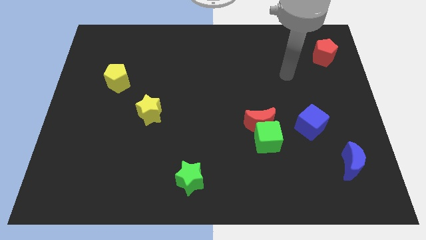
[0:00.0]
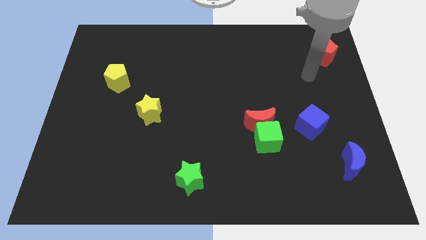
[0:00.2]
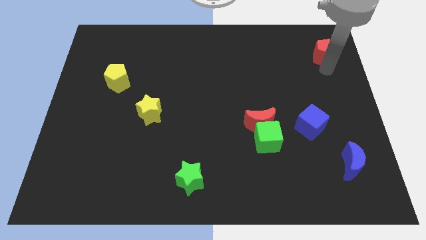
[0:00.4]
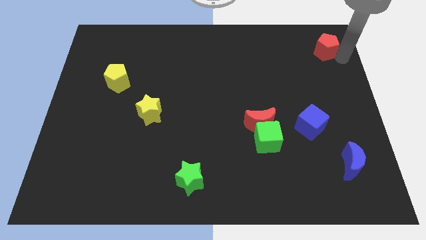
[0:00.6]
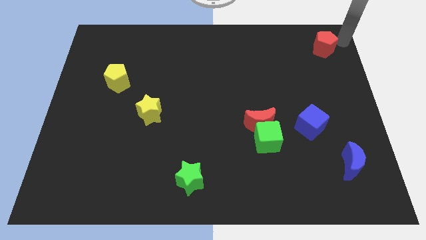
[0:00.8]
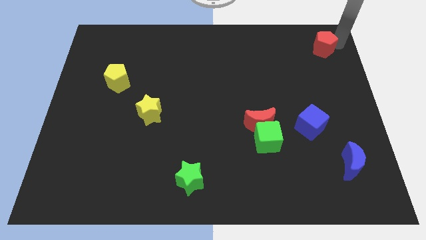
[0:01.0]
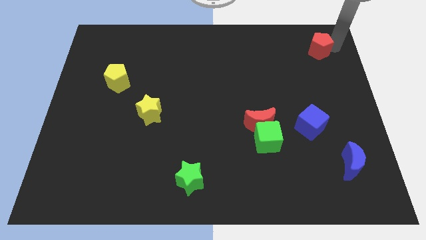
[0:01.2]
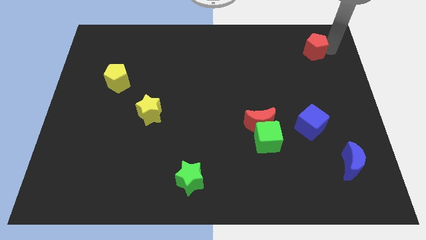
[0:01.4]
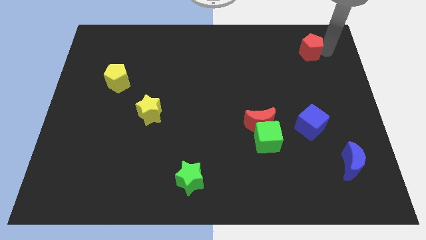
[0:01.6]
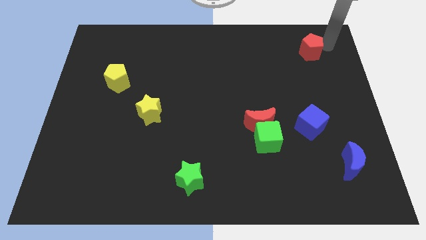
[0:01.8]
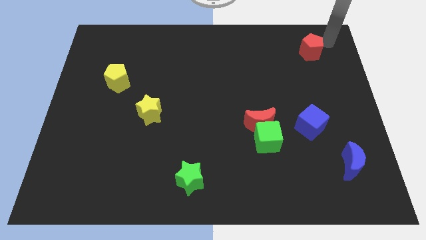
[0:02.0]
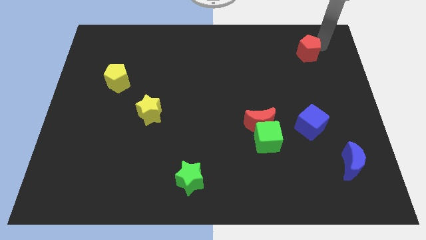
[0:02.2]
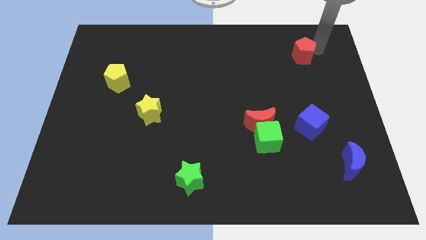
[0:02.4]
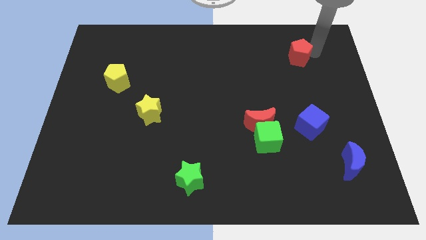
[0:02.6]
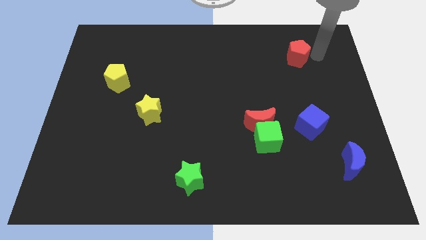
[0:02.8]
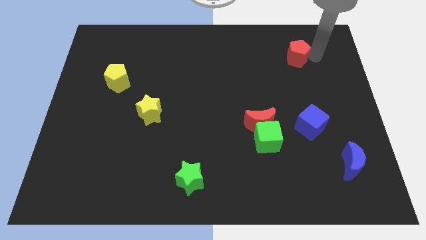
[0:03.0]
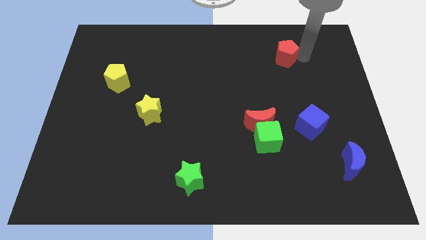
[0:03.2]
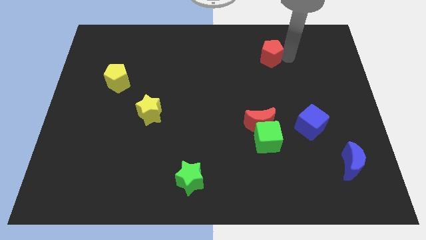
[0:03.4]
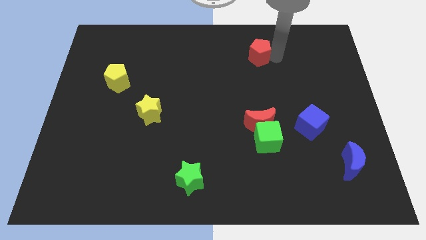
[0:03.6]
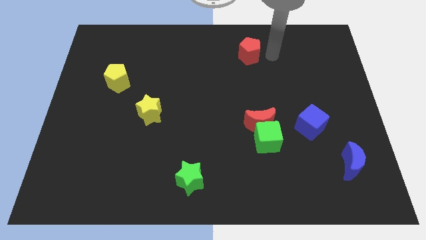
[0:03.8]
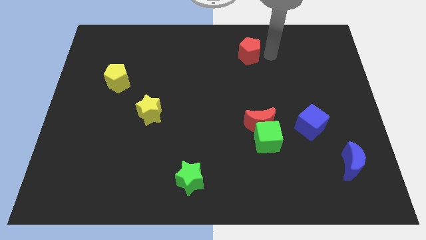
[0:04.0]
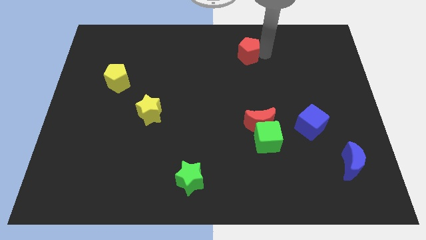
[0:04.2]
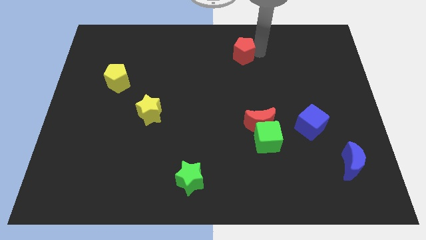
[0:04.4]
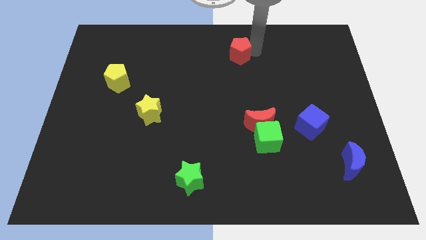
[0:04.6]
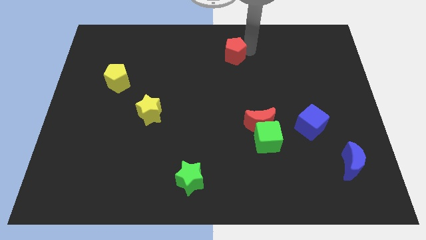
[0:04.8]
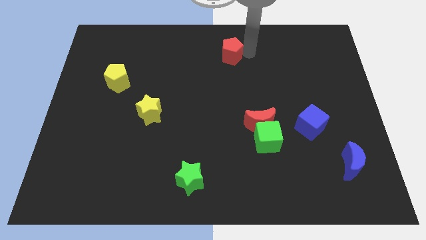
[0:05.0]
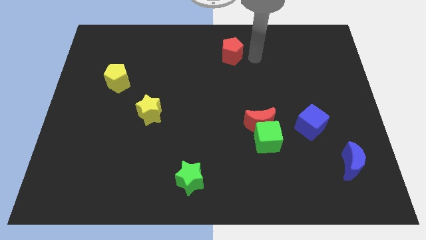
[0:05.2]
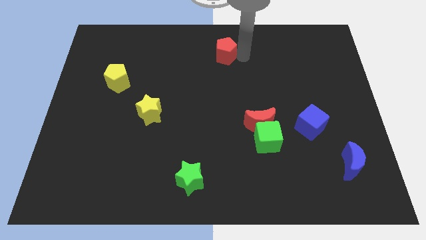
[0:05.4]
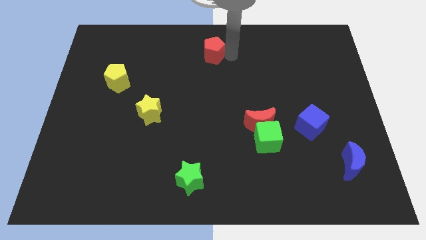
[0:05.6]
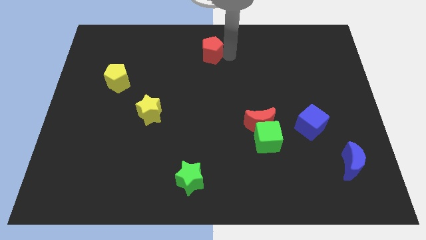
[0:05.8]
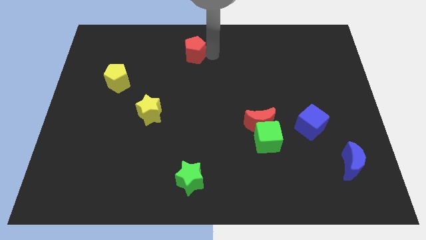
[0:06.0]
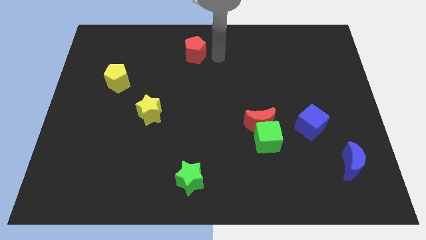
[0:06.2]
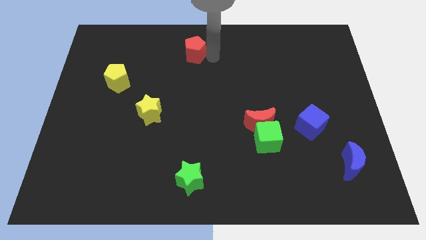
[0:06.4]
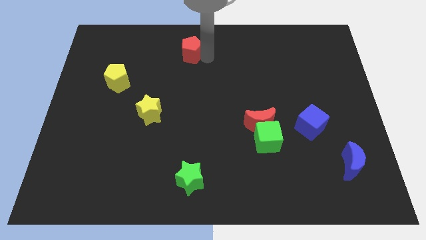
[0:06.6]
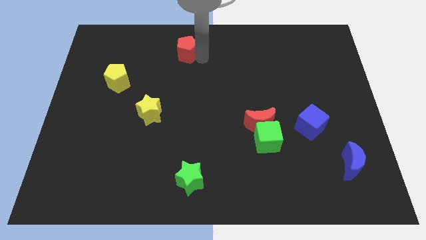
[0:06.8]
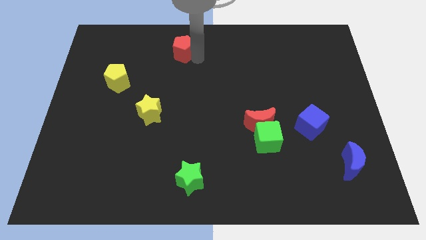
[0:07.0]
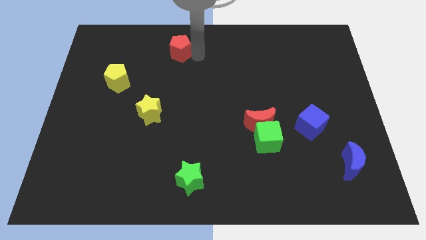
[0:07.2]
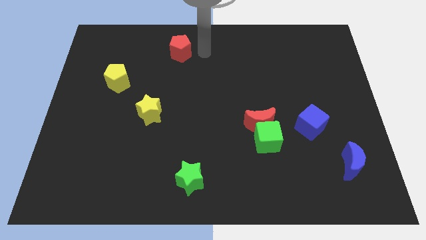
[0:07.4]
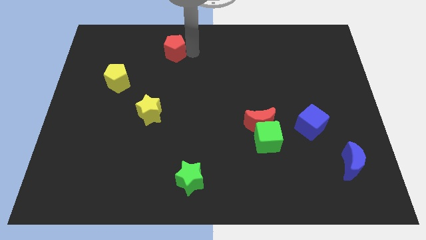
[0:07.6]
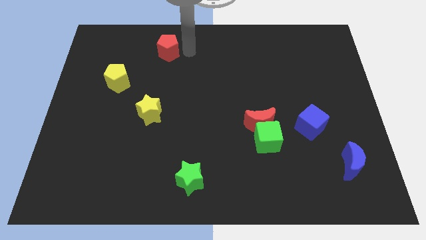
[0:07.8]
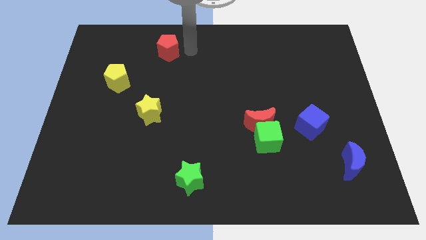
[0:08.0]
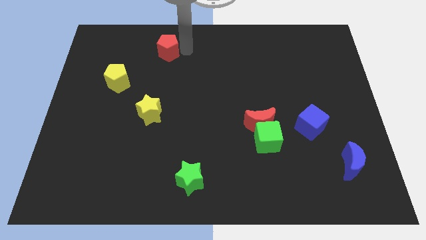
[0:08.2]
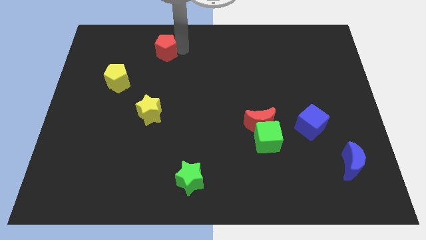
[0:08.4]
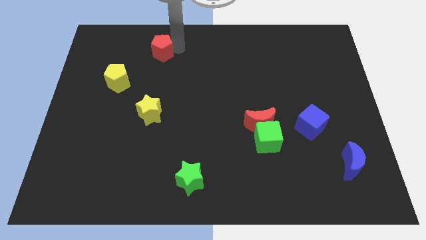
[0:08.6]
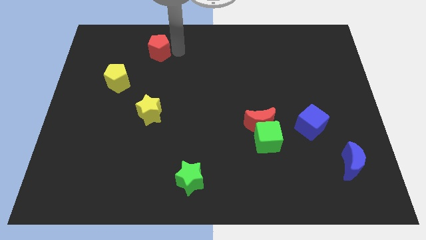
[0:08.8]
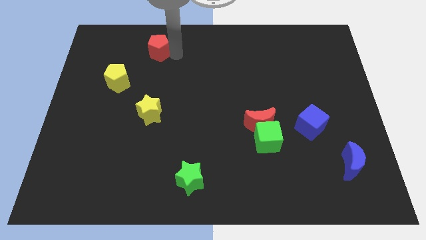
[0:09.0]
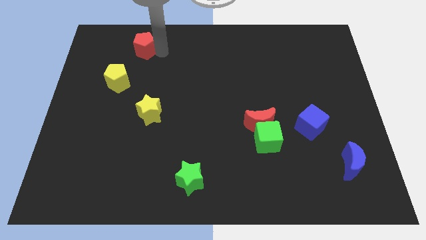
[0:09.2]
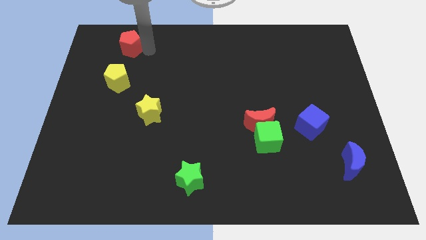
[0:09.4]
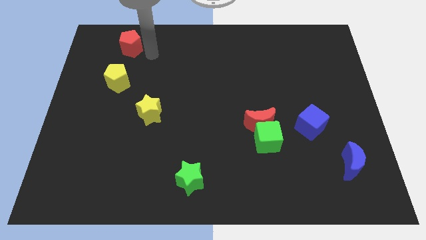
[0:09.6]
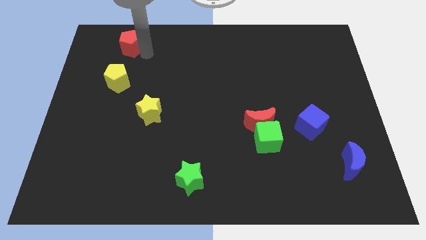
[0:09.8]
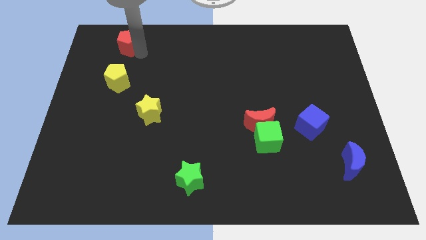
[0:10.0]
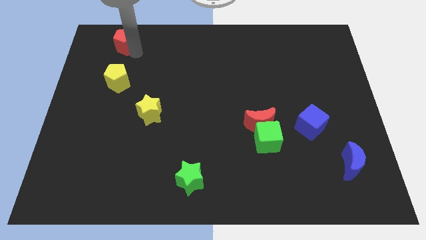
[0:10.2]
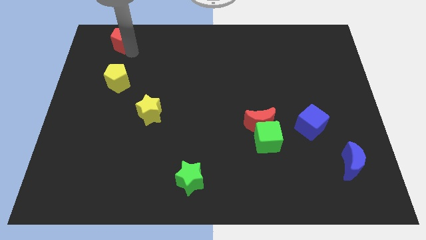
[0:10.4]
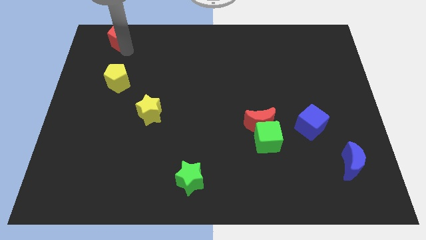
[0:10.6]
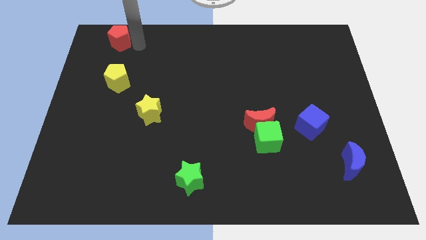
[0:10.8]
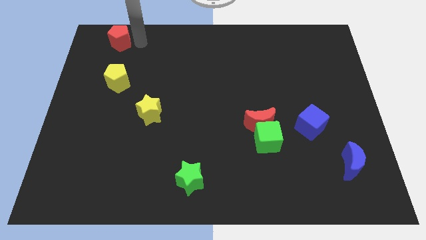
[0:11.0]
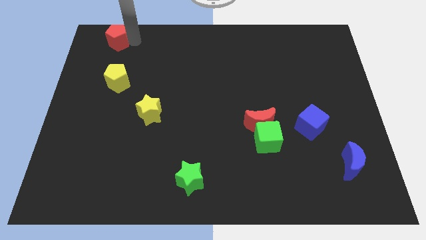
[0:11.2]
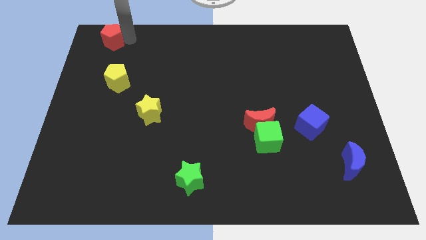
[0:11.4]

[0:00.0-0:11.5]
slide the red pentagon to the upper left corner

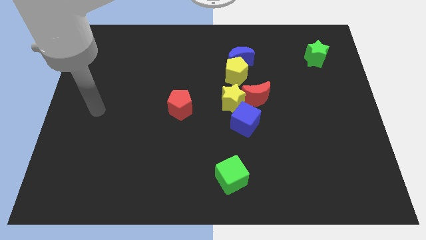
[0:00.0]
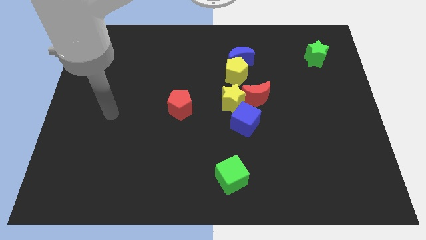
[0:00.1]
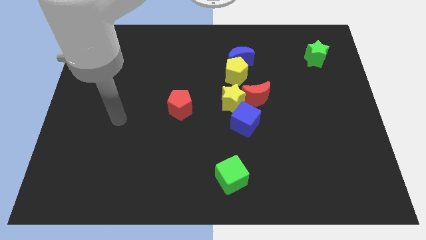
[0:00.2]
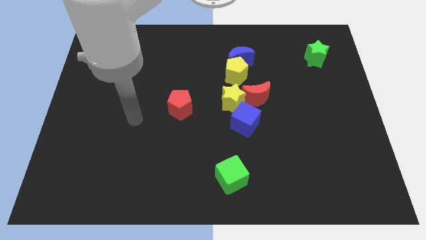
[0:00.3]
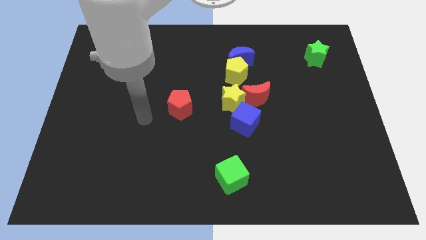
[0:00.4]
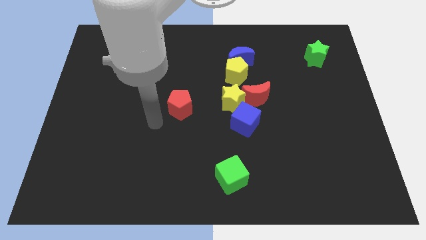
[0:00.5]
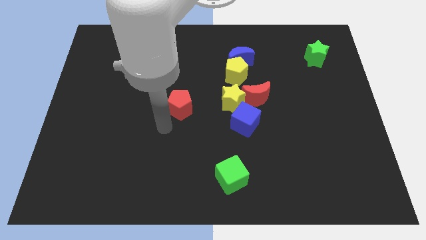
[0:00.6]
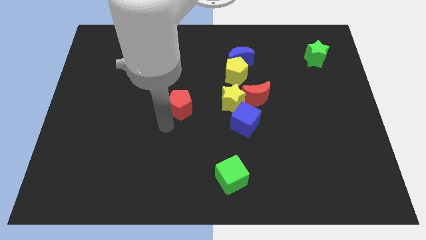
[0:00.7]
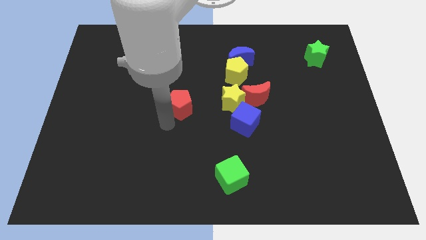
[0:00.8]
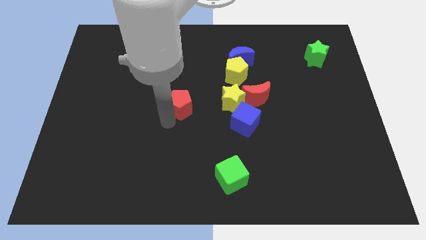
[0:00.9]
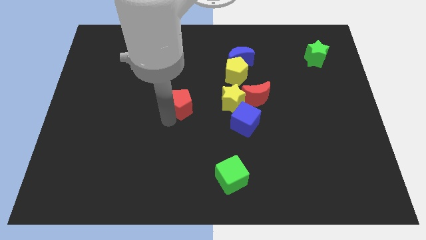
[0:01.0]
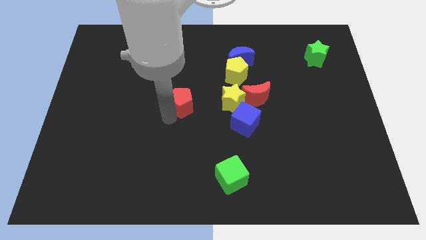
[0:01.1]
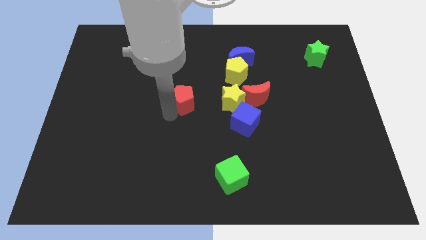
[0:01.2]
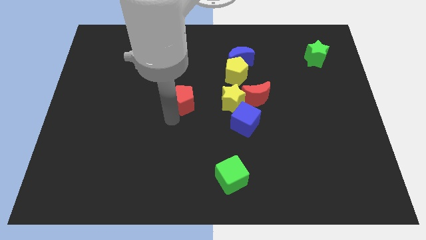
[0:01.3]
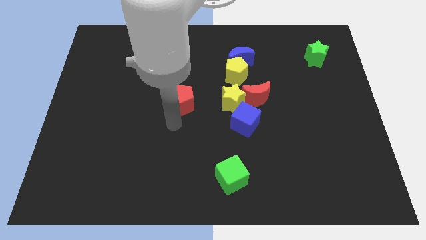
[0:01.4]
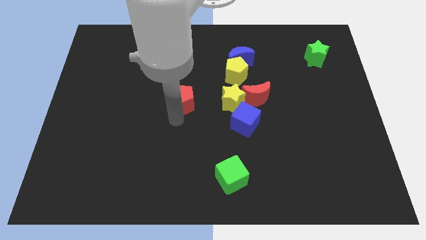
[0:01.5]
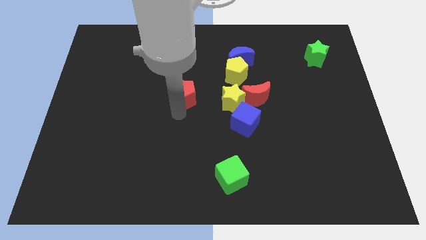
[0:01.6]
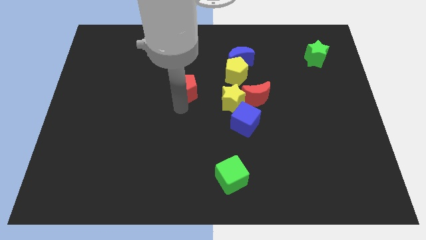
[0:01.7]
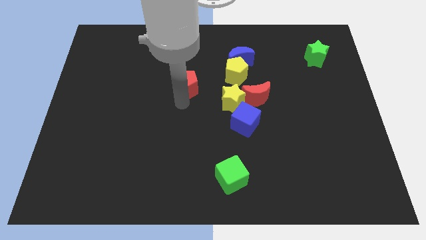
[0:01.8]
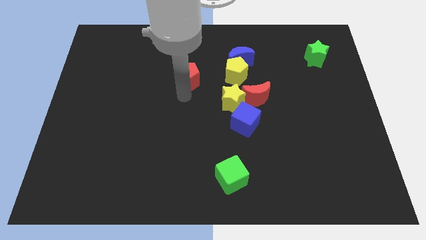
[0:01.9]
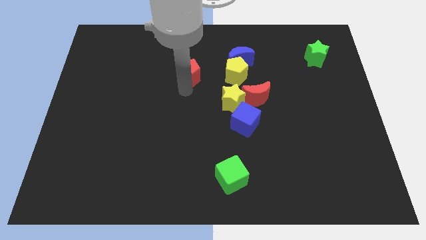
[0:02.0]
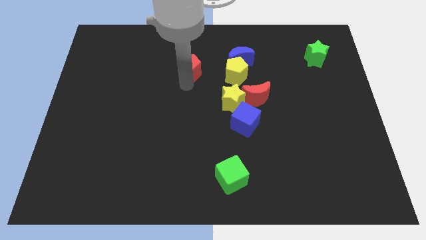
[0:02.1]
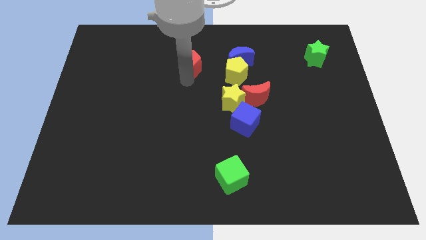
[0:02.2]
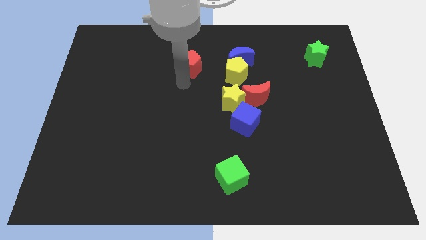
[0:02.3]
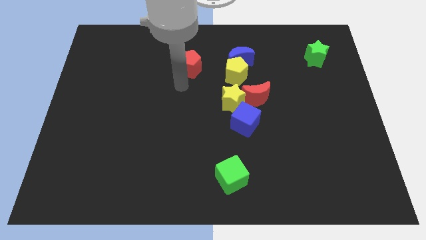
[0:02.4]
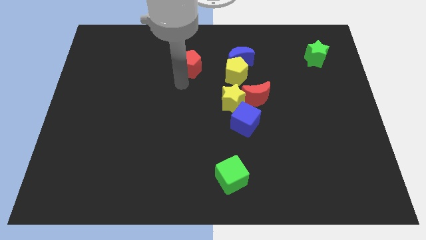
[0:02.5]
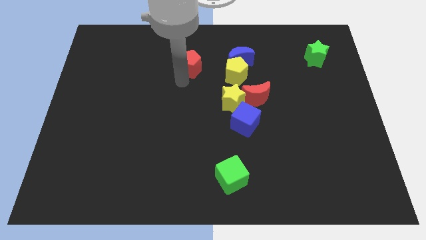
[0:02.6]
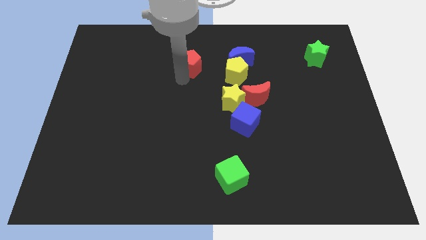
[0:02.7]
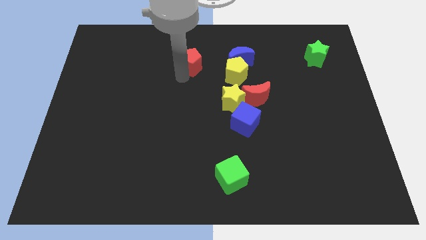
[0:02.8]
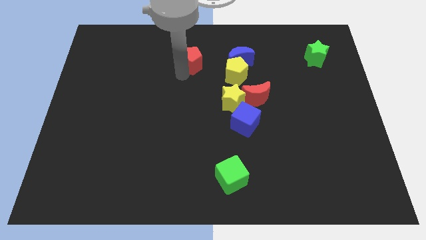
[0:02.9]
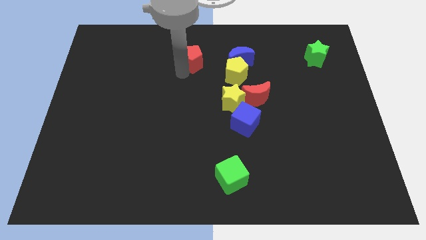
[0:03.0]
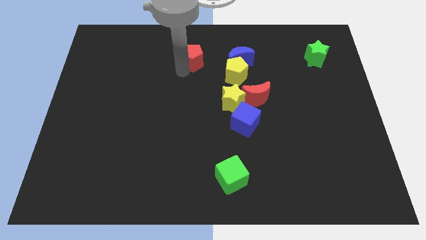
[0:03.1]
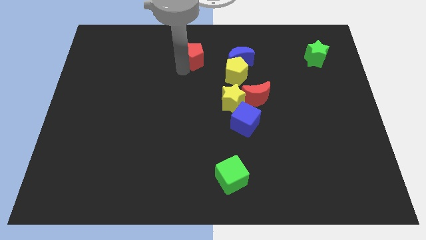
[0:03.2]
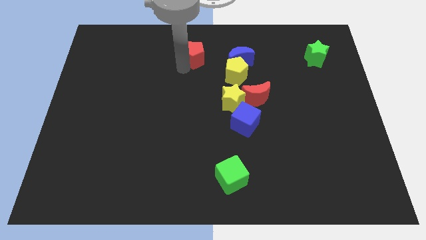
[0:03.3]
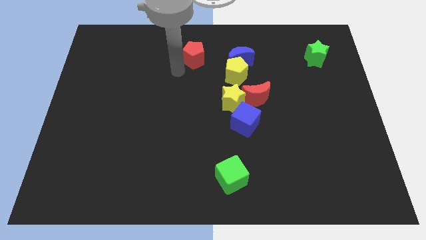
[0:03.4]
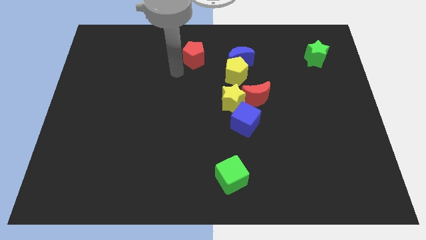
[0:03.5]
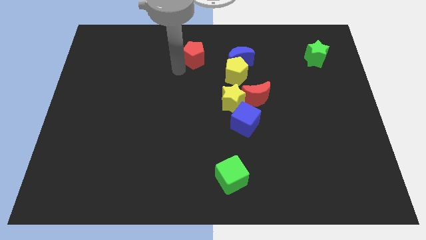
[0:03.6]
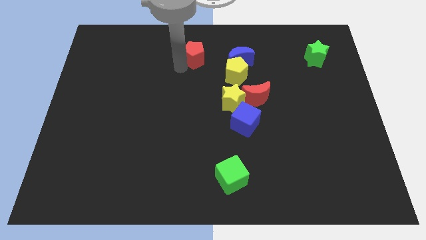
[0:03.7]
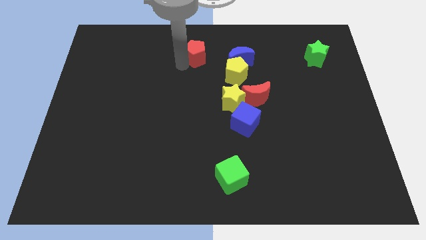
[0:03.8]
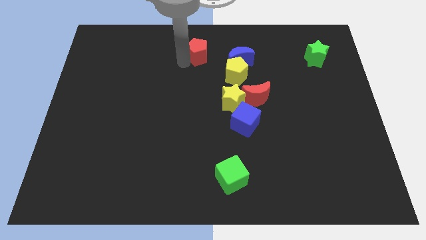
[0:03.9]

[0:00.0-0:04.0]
put the red pentagon to the top side
